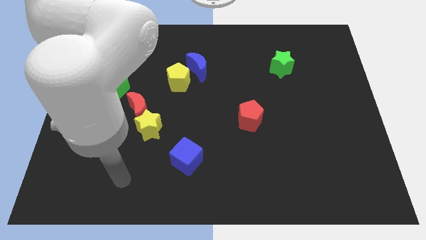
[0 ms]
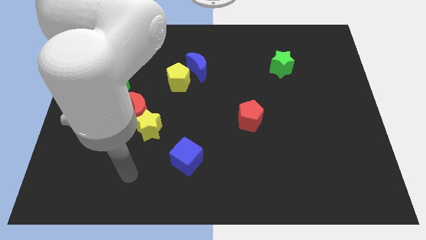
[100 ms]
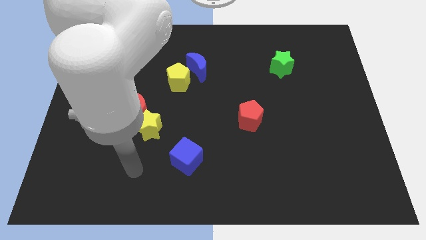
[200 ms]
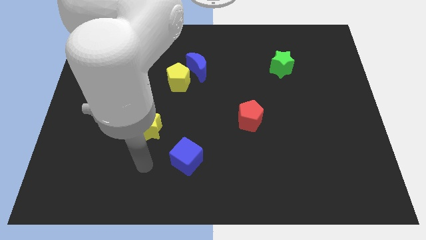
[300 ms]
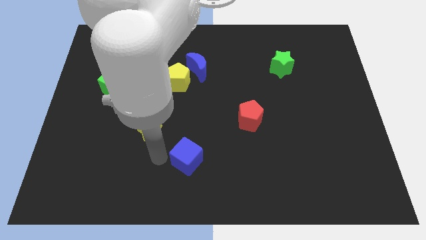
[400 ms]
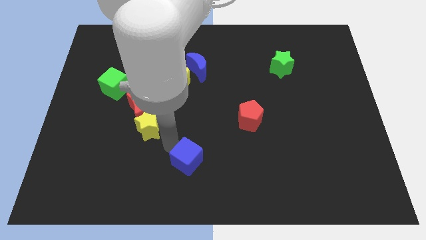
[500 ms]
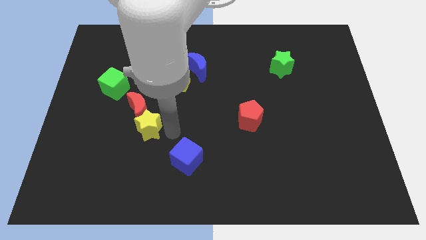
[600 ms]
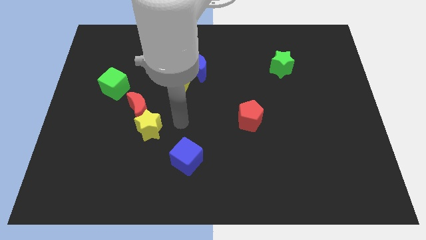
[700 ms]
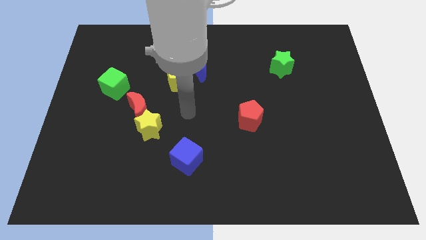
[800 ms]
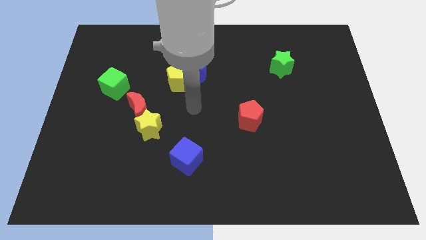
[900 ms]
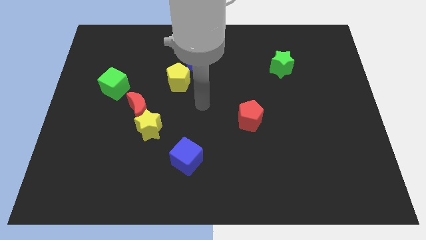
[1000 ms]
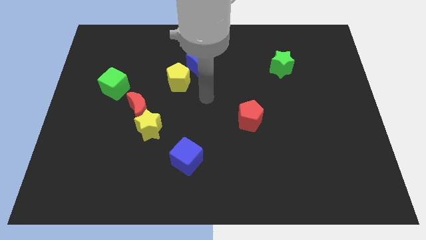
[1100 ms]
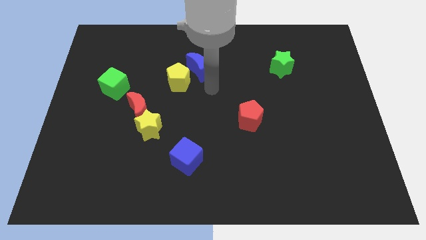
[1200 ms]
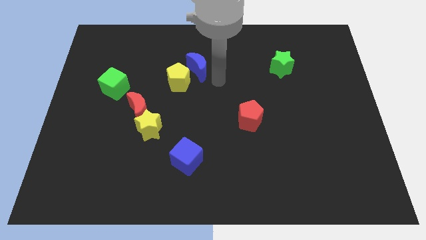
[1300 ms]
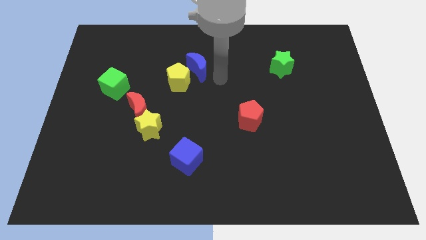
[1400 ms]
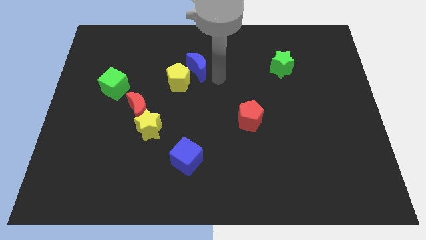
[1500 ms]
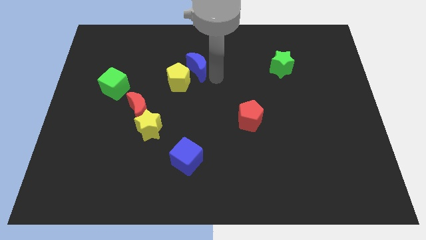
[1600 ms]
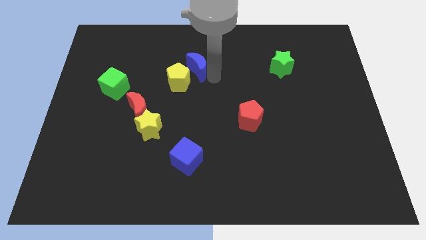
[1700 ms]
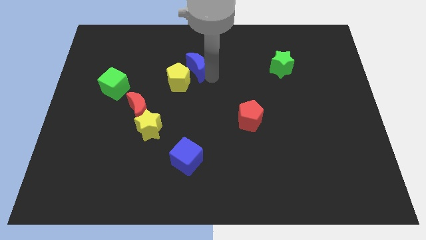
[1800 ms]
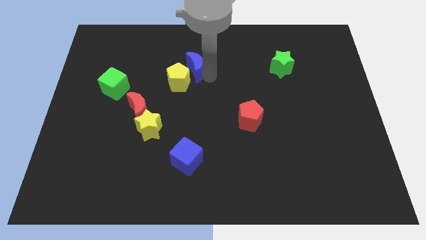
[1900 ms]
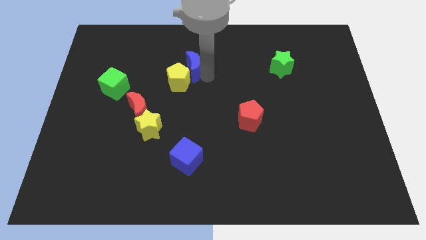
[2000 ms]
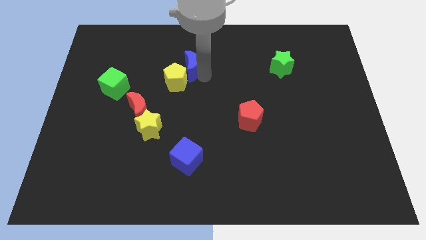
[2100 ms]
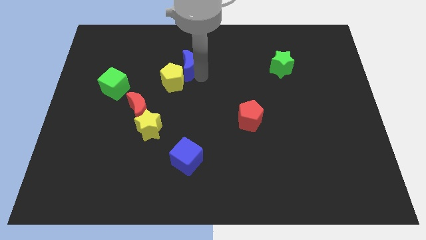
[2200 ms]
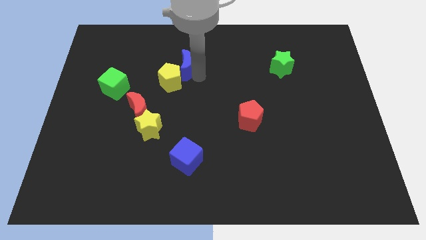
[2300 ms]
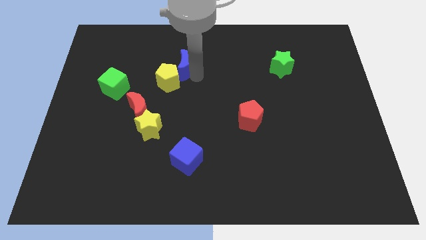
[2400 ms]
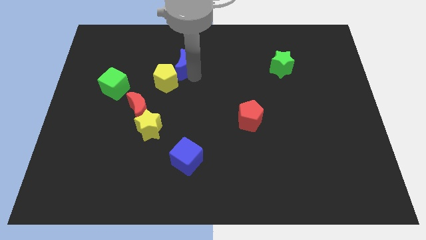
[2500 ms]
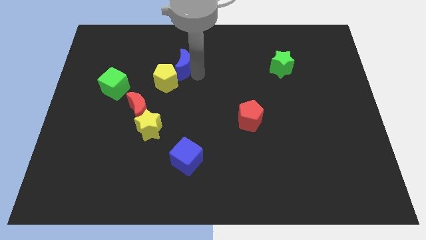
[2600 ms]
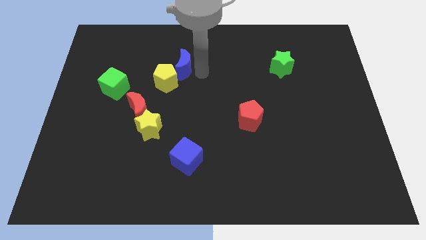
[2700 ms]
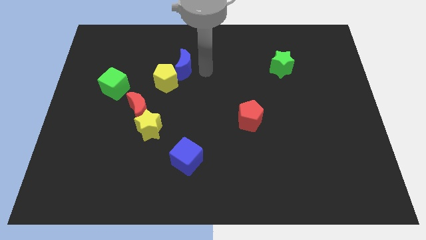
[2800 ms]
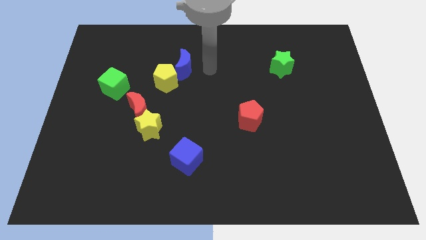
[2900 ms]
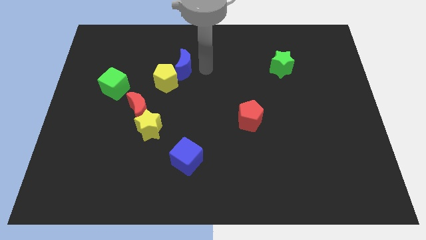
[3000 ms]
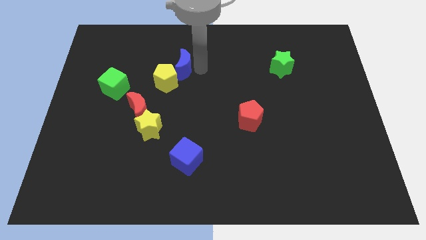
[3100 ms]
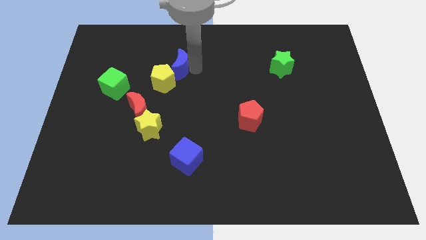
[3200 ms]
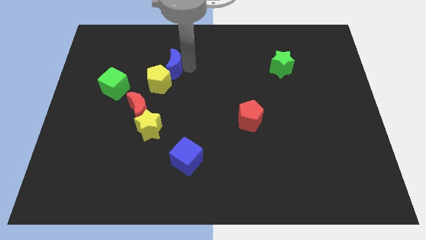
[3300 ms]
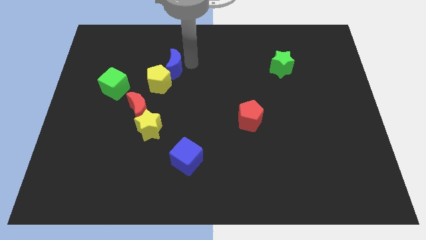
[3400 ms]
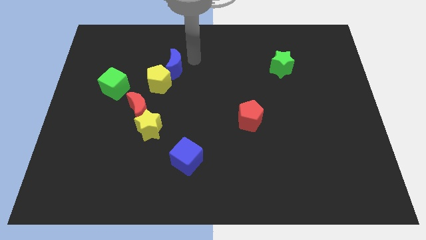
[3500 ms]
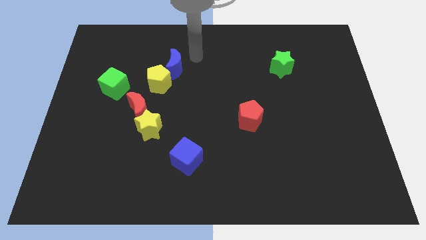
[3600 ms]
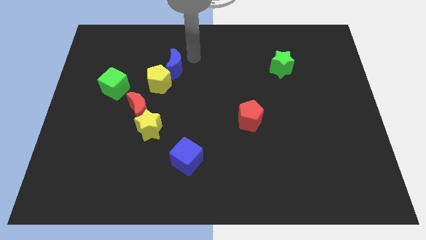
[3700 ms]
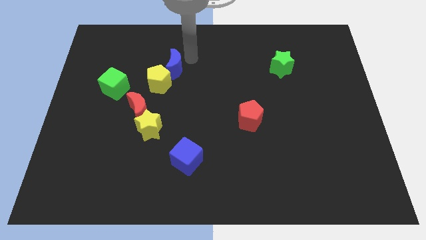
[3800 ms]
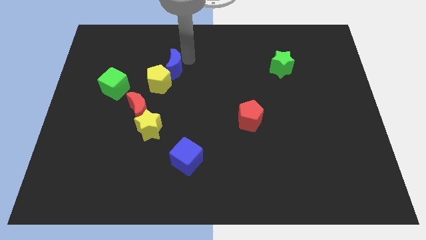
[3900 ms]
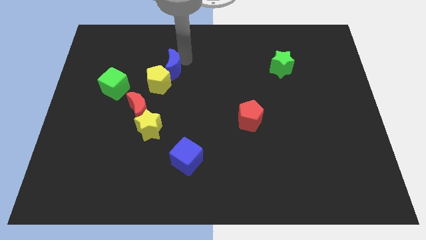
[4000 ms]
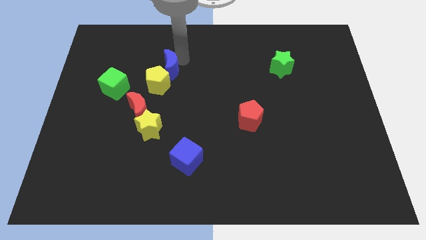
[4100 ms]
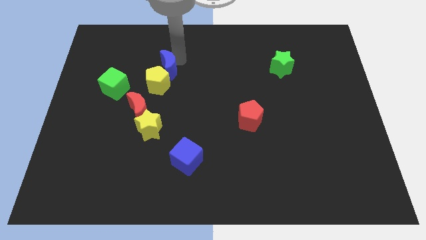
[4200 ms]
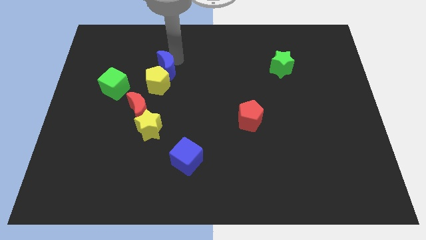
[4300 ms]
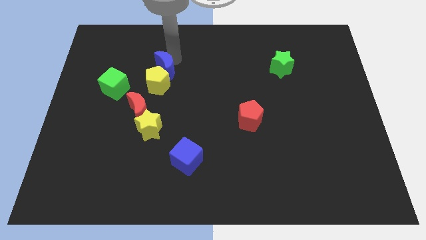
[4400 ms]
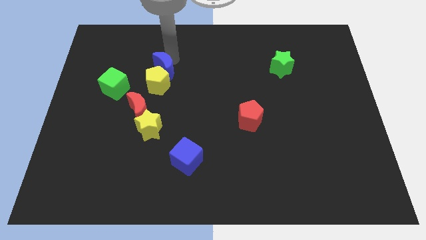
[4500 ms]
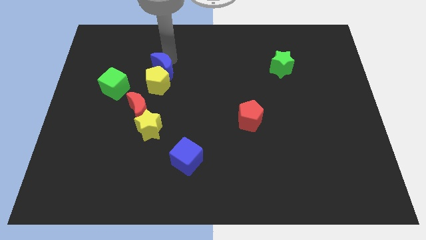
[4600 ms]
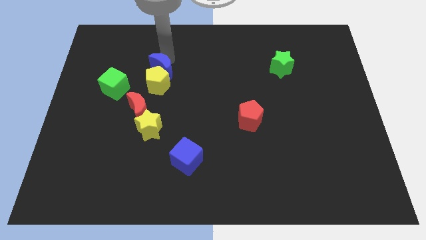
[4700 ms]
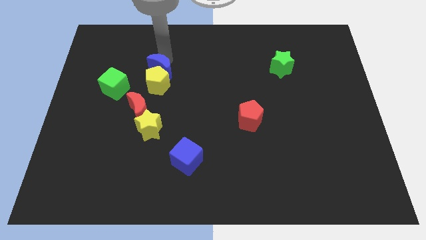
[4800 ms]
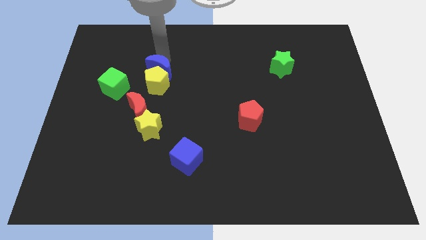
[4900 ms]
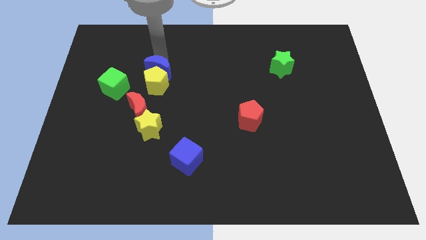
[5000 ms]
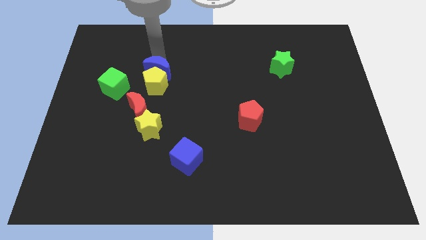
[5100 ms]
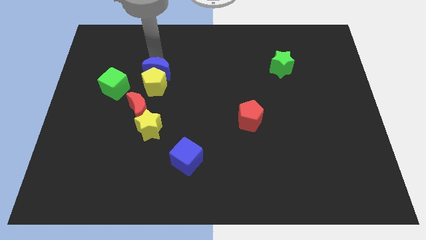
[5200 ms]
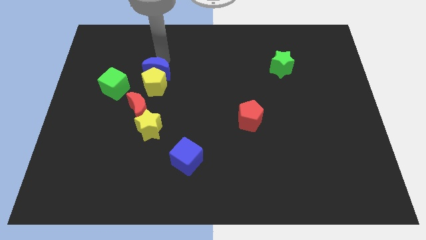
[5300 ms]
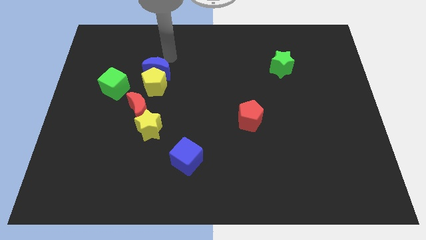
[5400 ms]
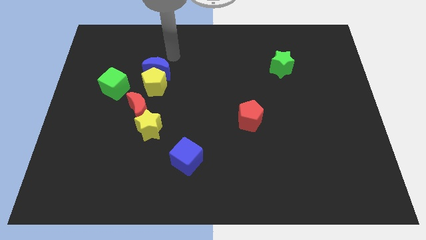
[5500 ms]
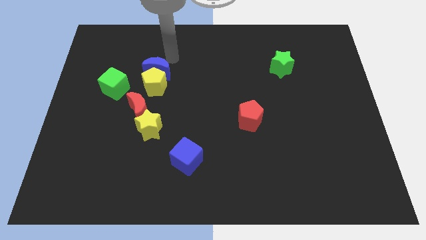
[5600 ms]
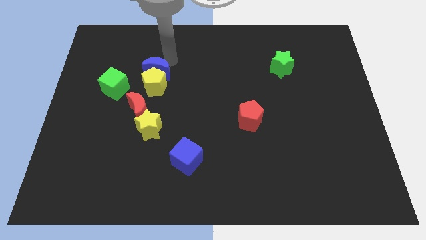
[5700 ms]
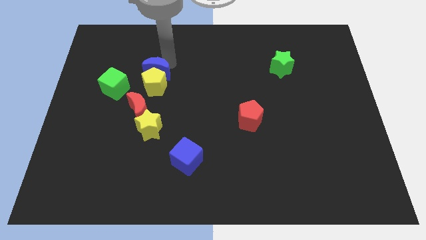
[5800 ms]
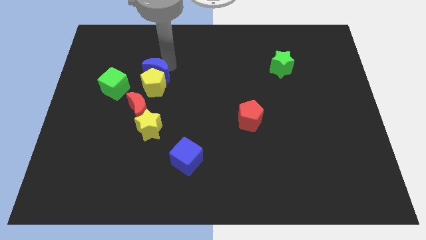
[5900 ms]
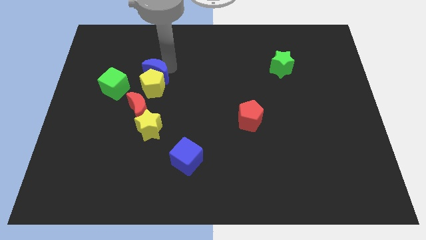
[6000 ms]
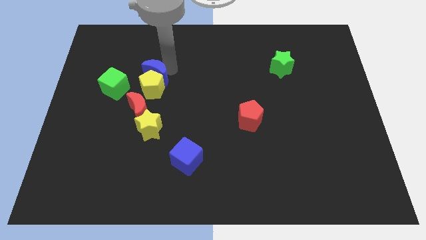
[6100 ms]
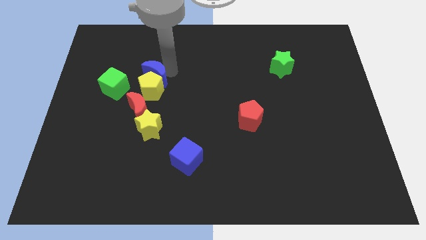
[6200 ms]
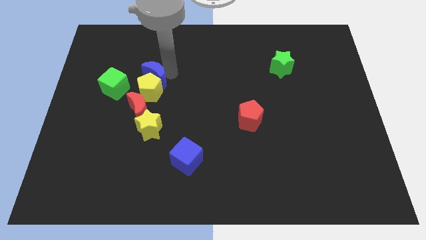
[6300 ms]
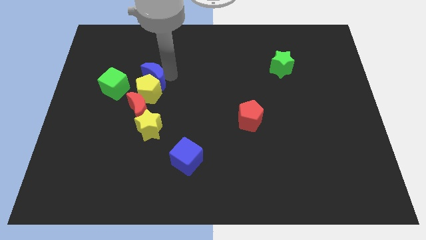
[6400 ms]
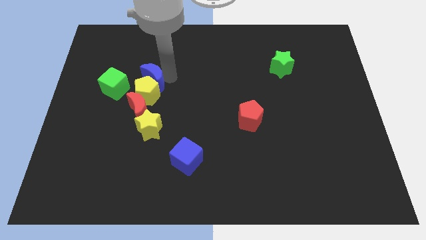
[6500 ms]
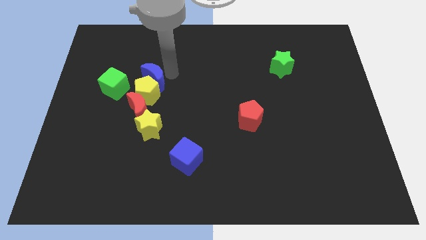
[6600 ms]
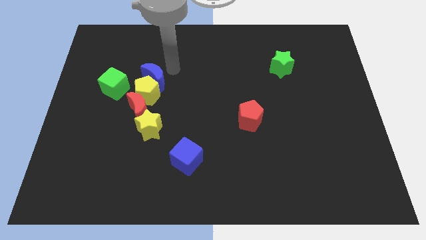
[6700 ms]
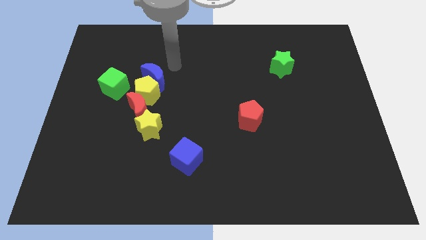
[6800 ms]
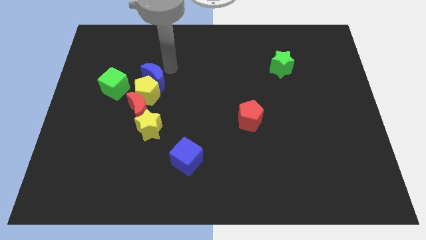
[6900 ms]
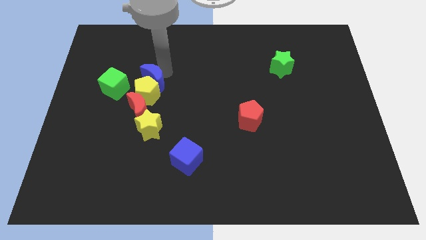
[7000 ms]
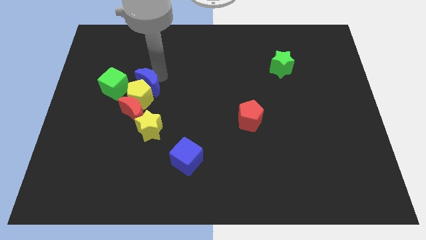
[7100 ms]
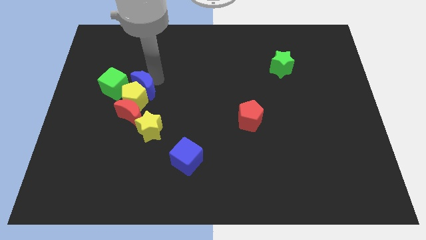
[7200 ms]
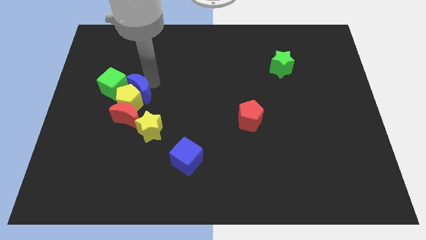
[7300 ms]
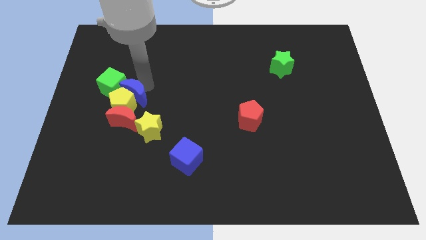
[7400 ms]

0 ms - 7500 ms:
slide the blue moon diagonally up and to the left of the yellow star
